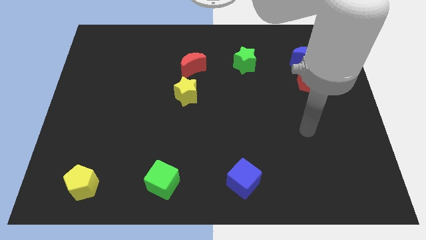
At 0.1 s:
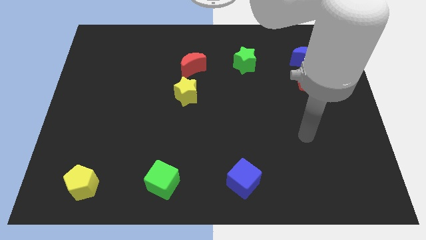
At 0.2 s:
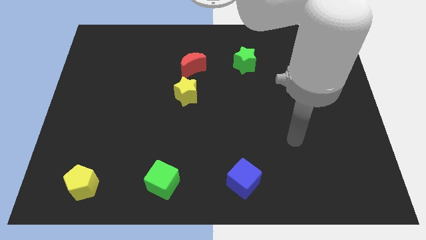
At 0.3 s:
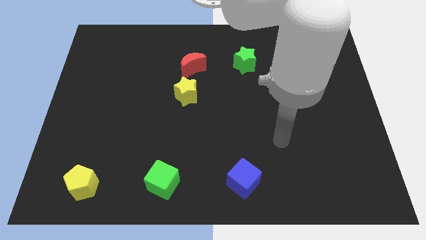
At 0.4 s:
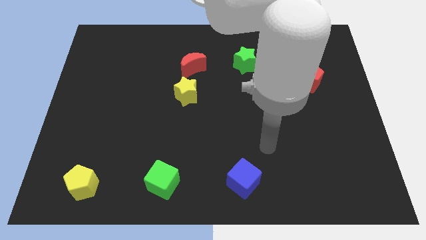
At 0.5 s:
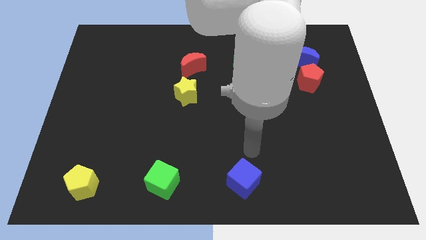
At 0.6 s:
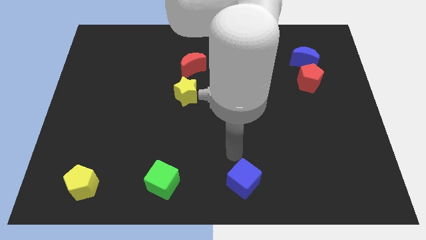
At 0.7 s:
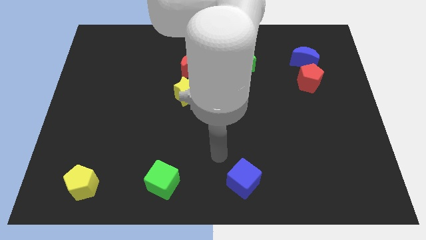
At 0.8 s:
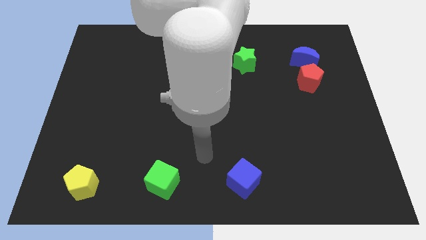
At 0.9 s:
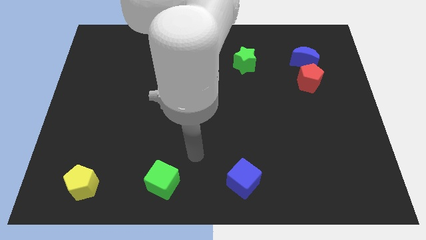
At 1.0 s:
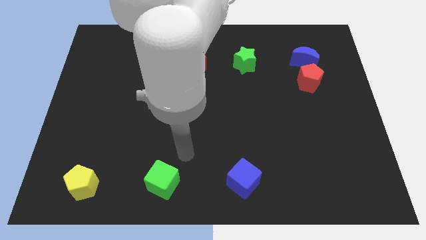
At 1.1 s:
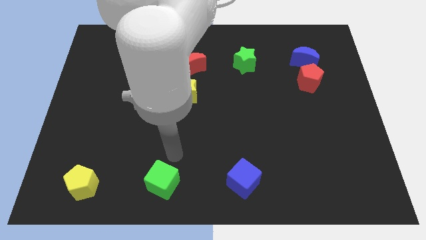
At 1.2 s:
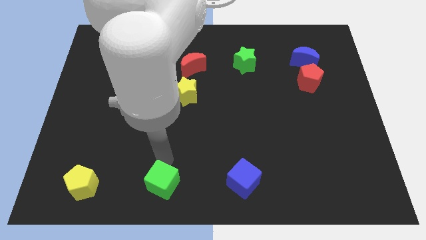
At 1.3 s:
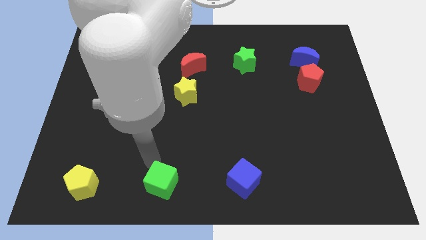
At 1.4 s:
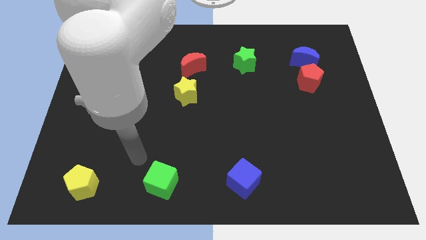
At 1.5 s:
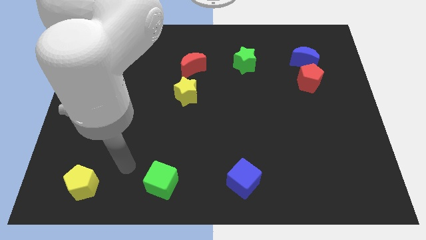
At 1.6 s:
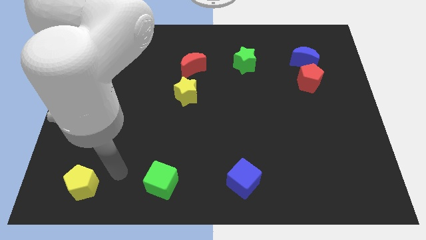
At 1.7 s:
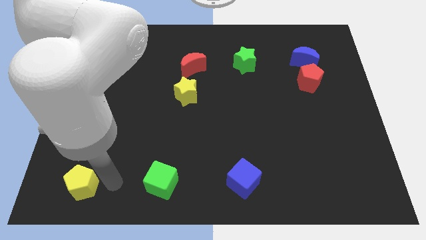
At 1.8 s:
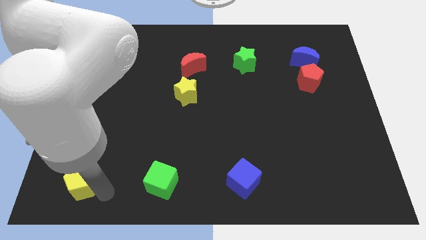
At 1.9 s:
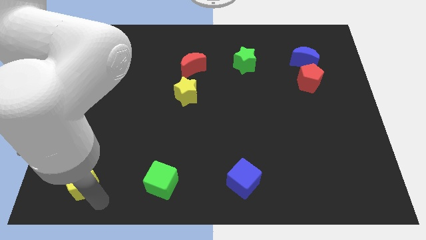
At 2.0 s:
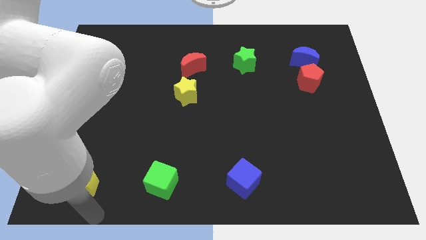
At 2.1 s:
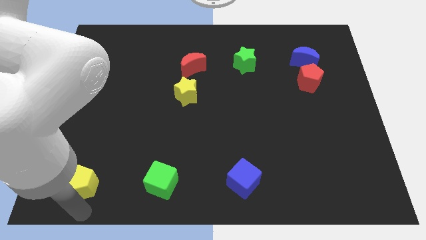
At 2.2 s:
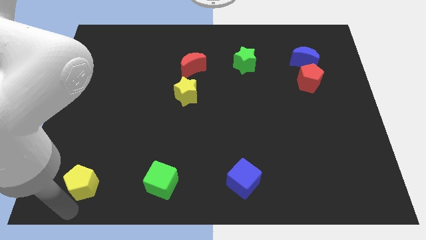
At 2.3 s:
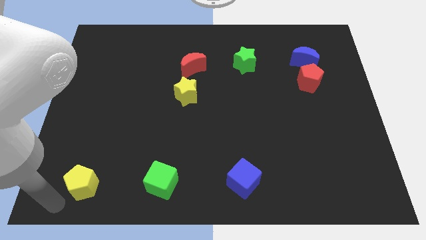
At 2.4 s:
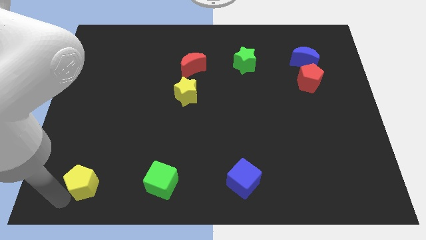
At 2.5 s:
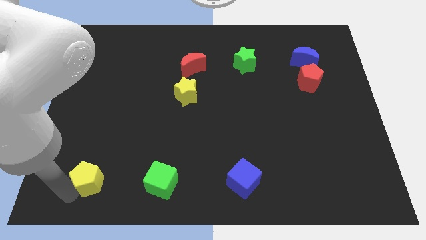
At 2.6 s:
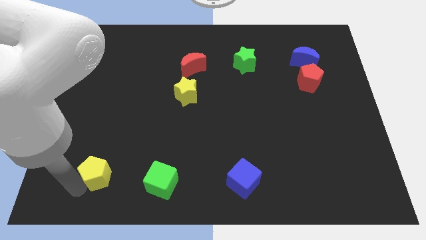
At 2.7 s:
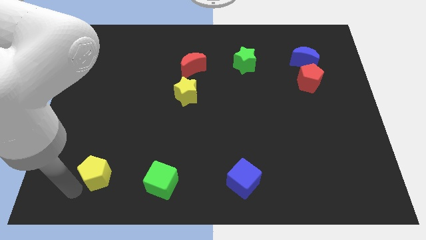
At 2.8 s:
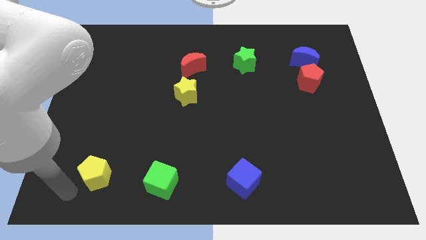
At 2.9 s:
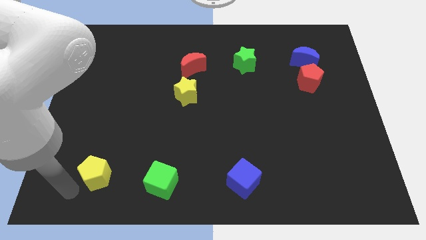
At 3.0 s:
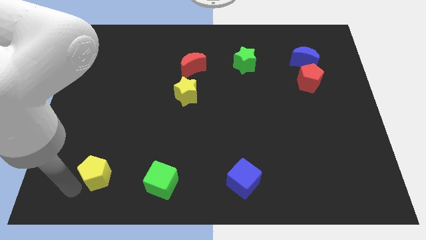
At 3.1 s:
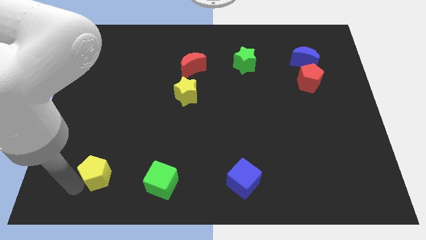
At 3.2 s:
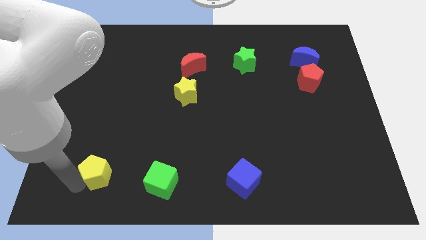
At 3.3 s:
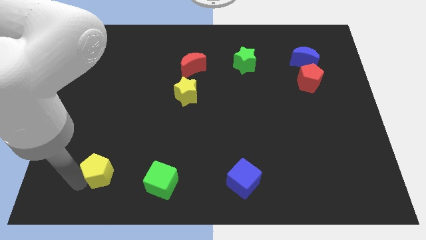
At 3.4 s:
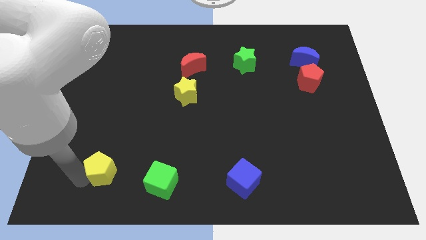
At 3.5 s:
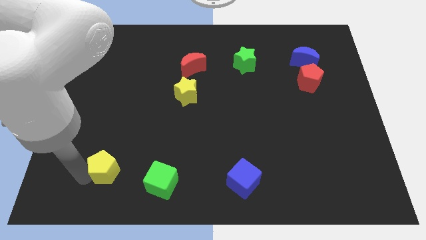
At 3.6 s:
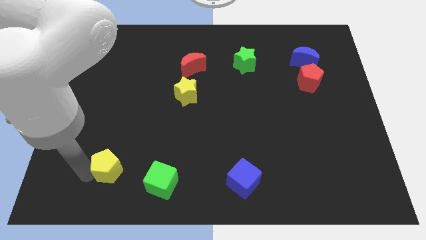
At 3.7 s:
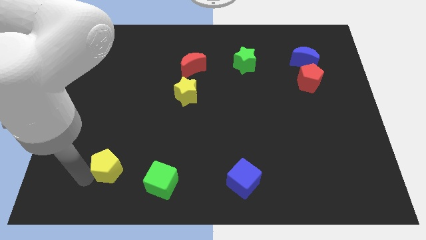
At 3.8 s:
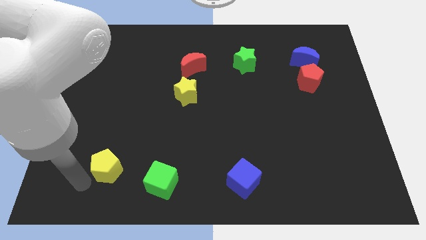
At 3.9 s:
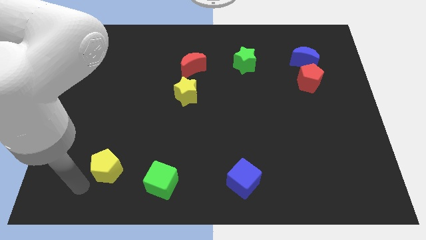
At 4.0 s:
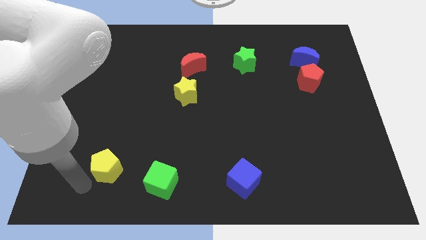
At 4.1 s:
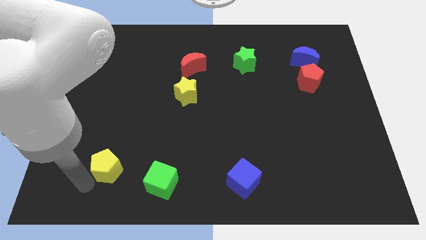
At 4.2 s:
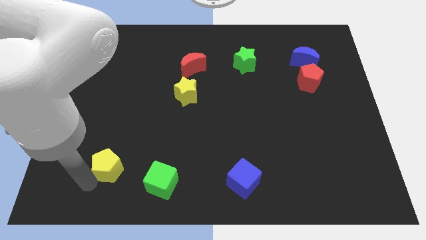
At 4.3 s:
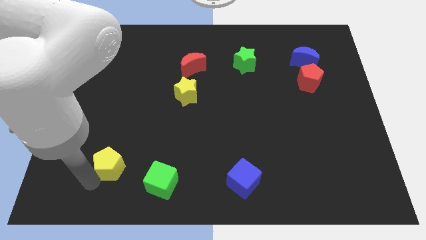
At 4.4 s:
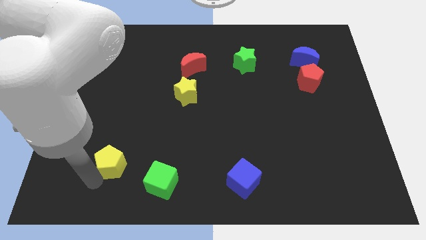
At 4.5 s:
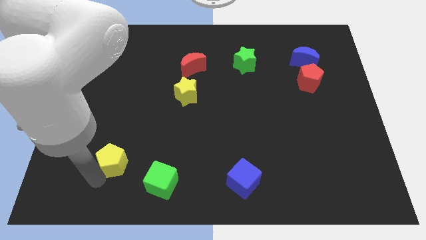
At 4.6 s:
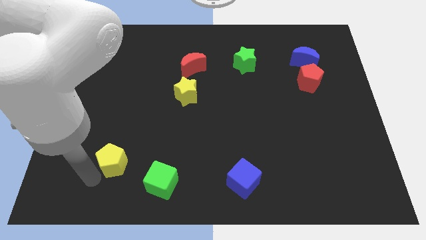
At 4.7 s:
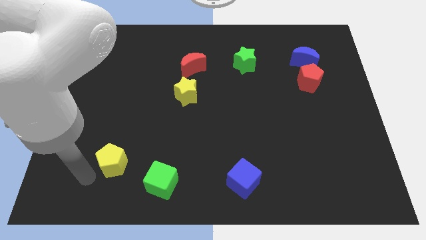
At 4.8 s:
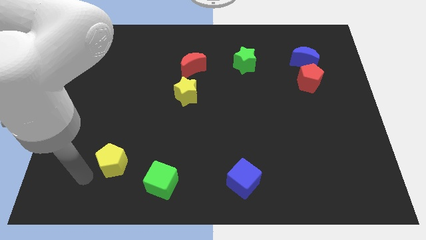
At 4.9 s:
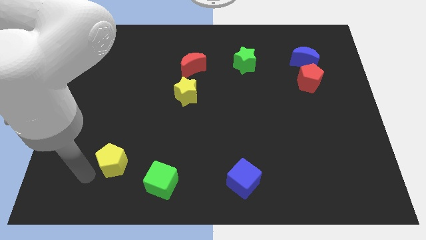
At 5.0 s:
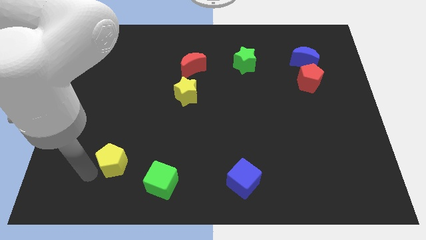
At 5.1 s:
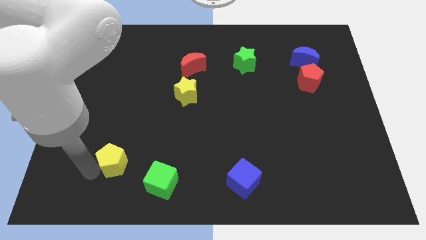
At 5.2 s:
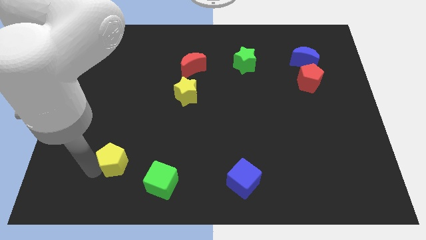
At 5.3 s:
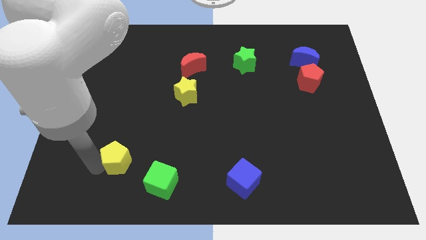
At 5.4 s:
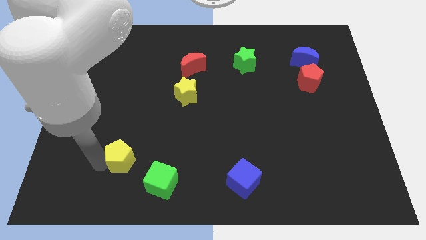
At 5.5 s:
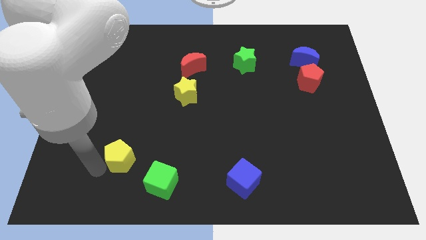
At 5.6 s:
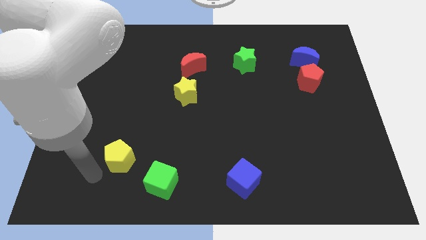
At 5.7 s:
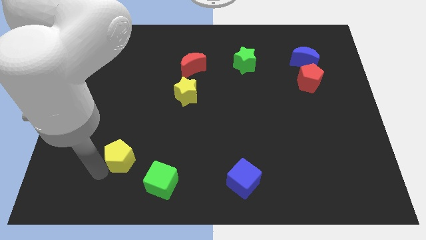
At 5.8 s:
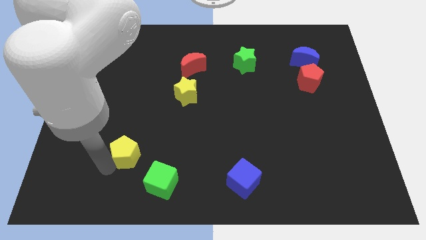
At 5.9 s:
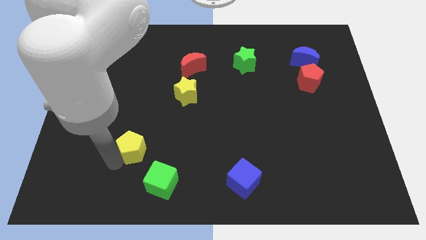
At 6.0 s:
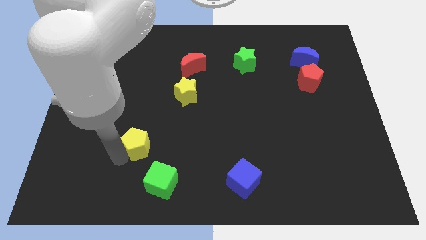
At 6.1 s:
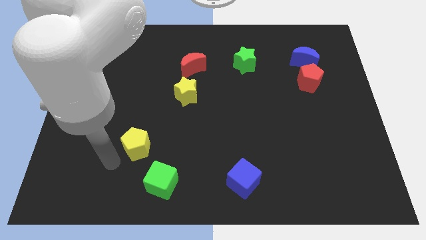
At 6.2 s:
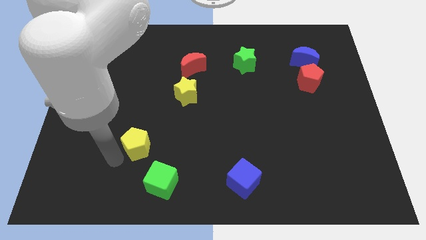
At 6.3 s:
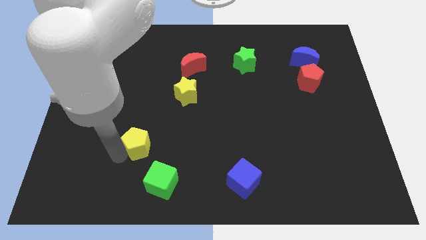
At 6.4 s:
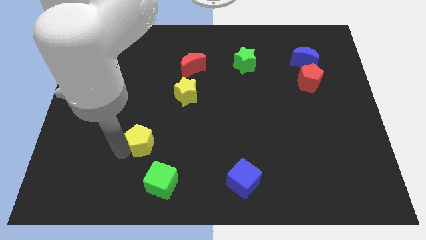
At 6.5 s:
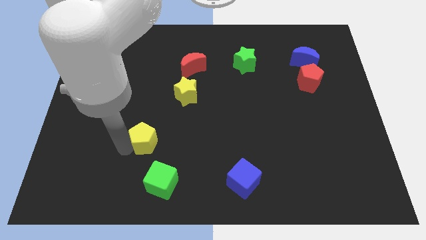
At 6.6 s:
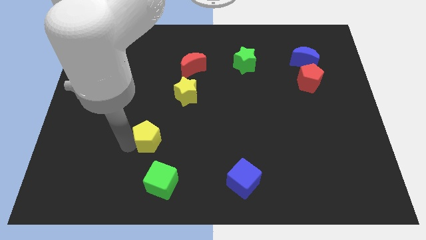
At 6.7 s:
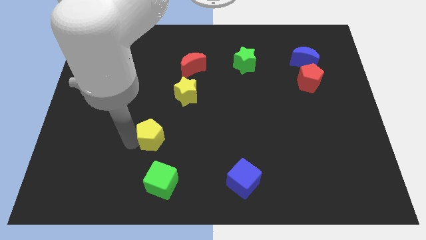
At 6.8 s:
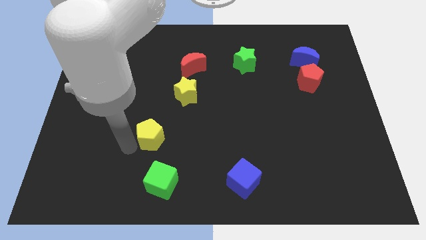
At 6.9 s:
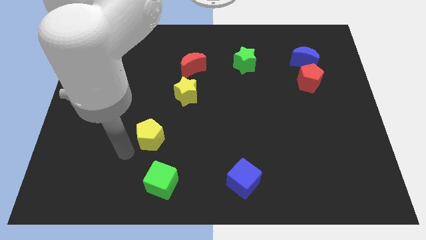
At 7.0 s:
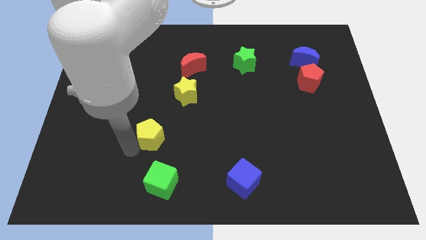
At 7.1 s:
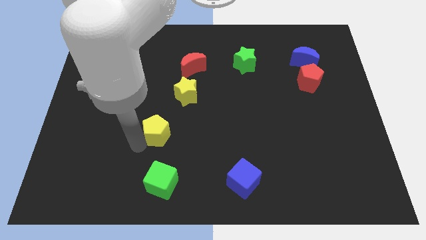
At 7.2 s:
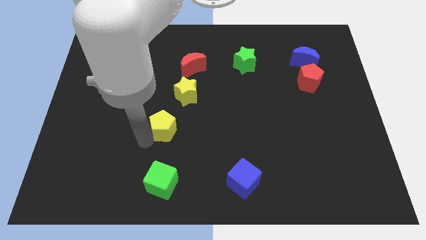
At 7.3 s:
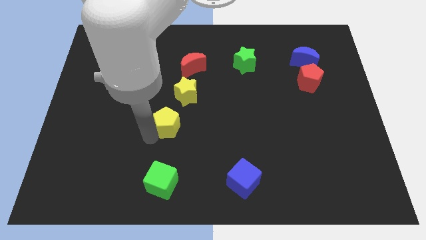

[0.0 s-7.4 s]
move the yellow pentagon to the center
